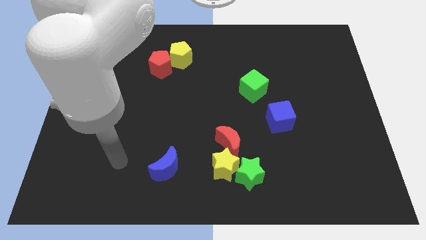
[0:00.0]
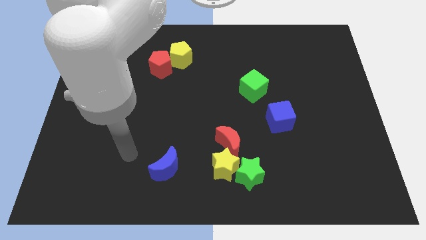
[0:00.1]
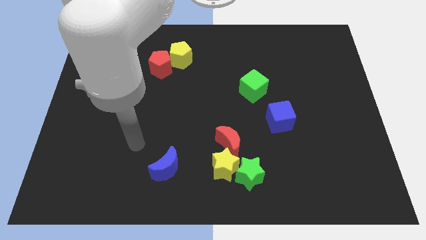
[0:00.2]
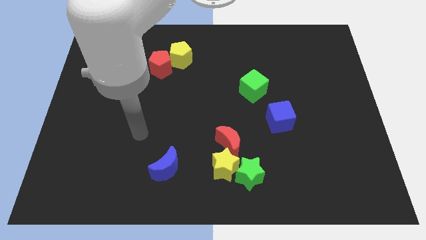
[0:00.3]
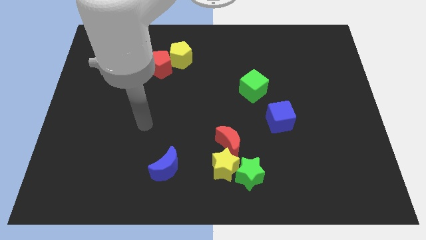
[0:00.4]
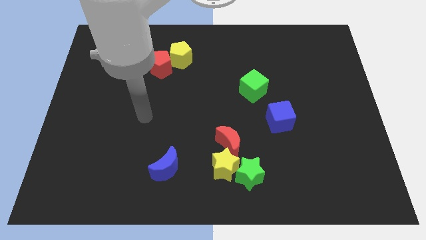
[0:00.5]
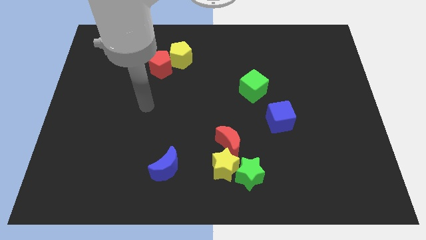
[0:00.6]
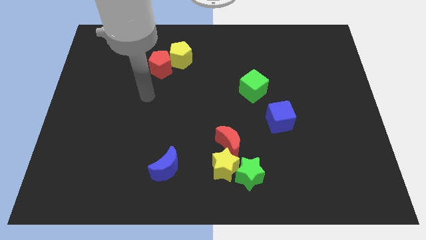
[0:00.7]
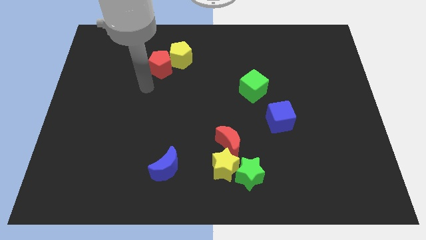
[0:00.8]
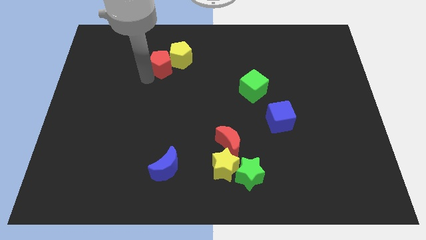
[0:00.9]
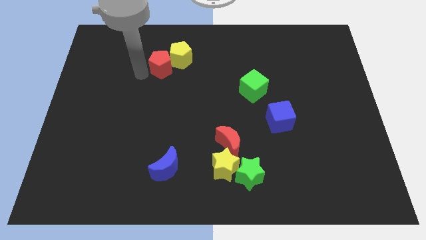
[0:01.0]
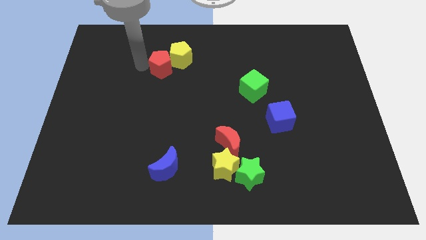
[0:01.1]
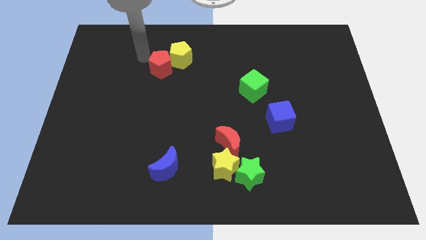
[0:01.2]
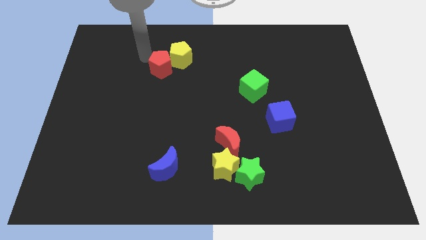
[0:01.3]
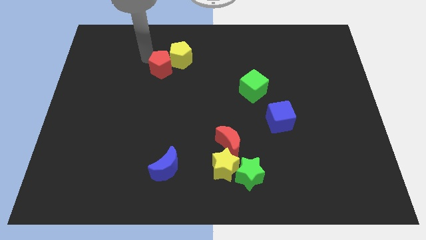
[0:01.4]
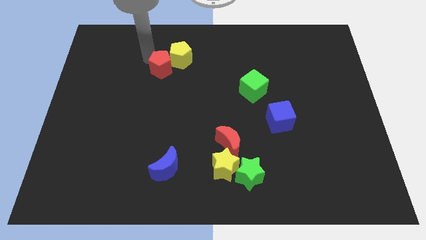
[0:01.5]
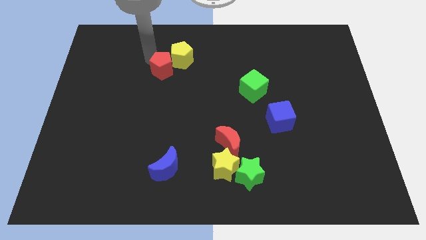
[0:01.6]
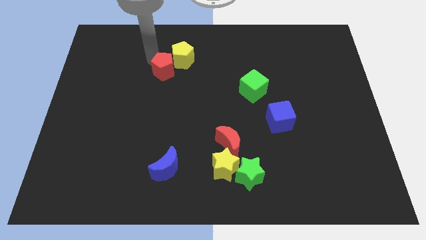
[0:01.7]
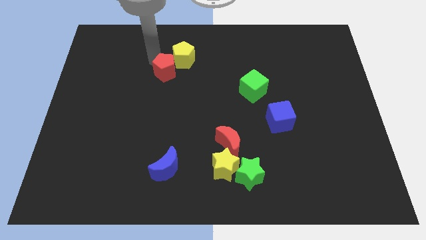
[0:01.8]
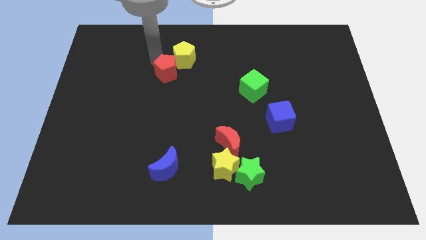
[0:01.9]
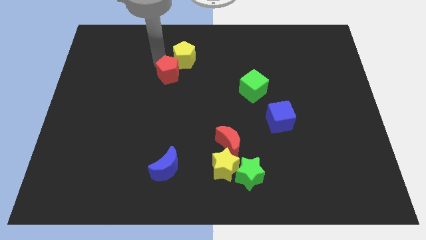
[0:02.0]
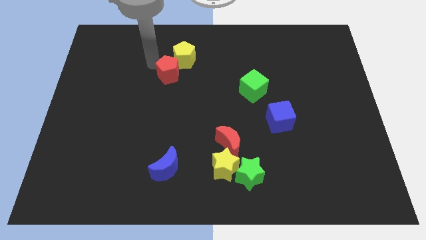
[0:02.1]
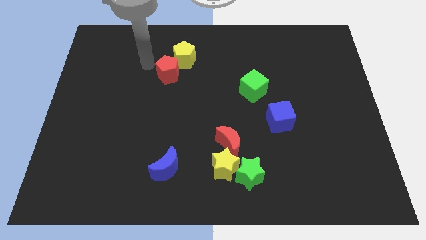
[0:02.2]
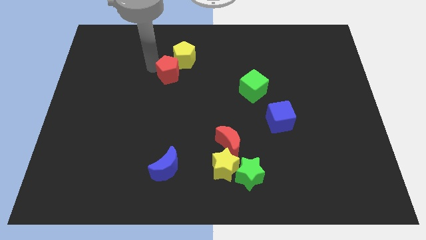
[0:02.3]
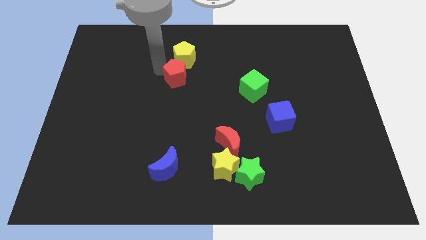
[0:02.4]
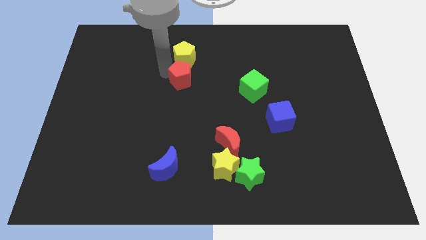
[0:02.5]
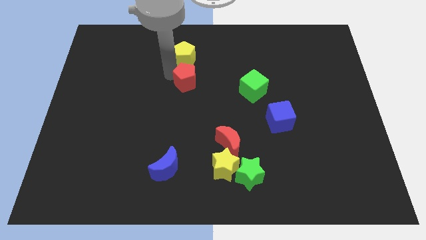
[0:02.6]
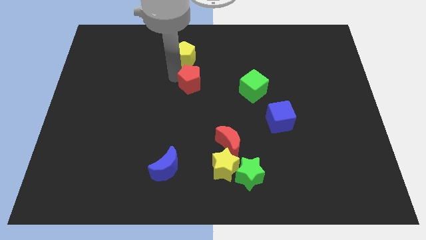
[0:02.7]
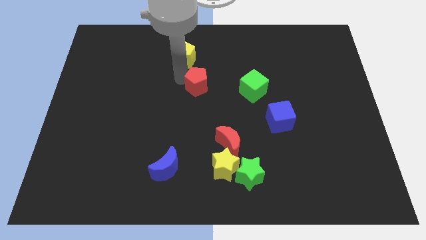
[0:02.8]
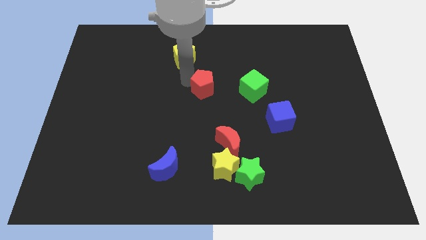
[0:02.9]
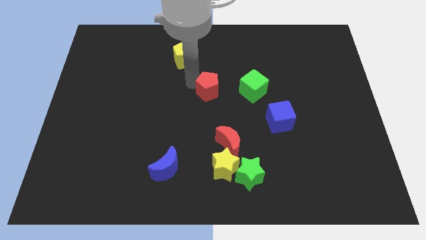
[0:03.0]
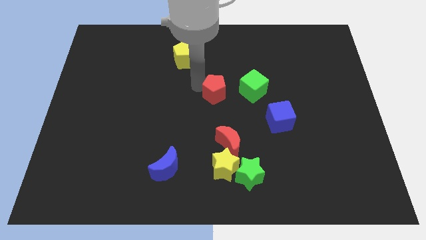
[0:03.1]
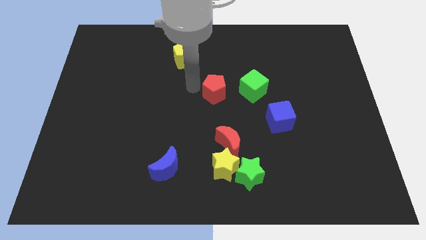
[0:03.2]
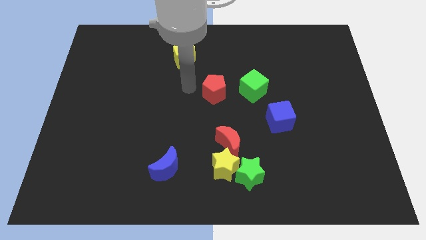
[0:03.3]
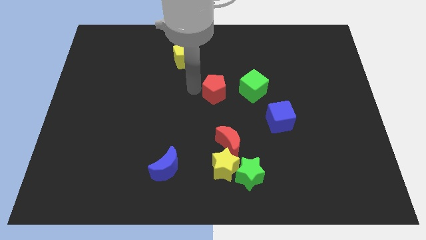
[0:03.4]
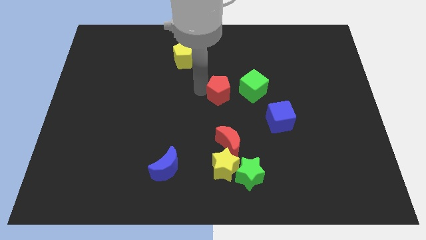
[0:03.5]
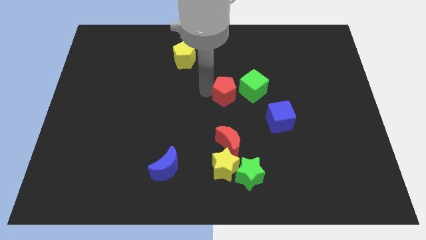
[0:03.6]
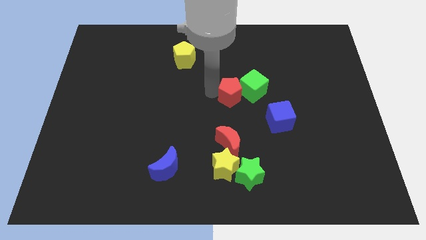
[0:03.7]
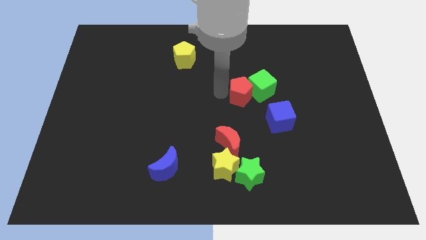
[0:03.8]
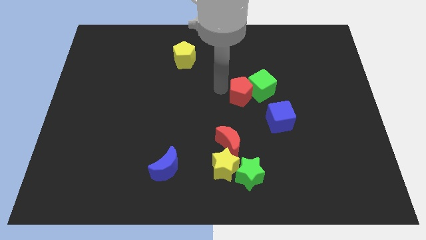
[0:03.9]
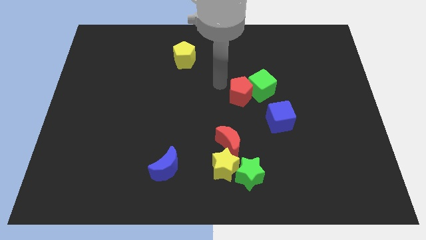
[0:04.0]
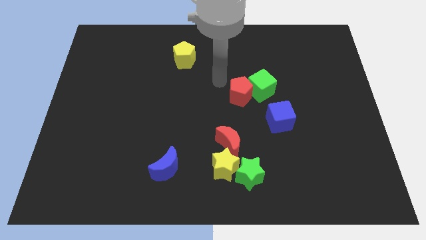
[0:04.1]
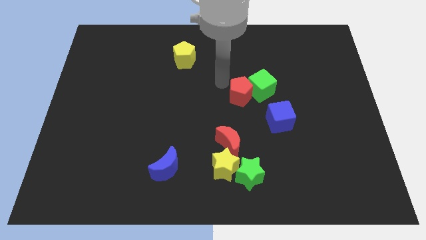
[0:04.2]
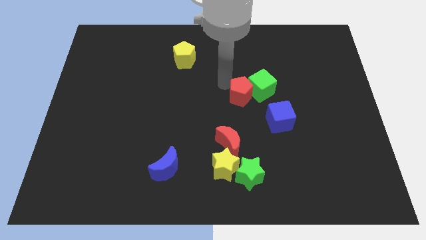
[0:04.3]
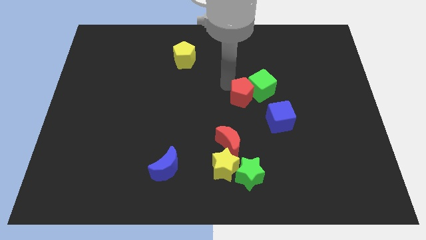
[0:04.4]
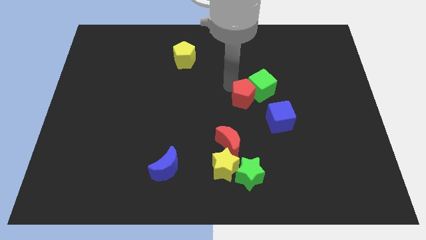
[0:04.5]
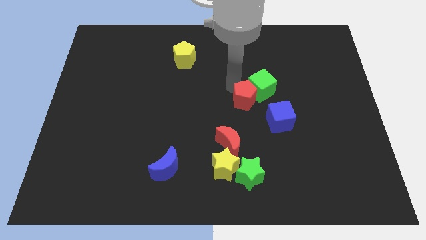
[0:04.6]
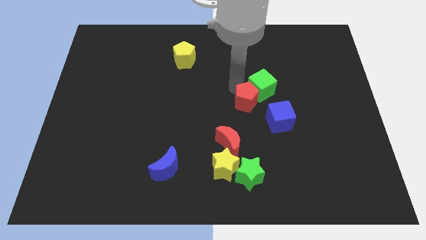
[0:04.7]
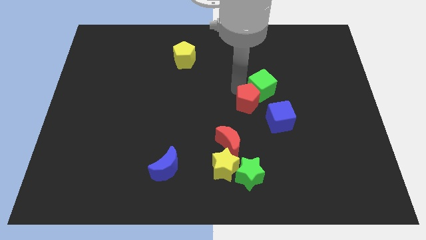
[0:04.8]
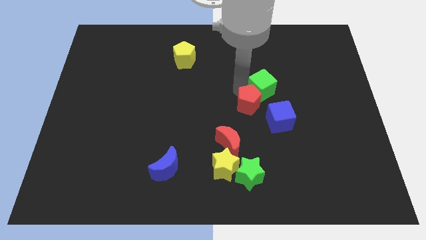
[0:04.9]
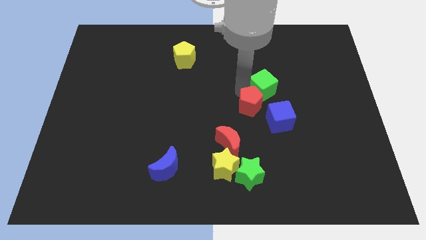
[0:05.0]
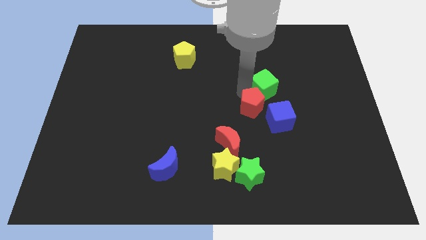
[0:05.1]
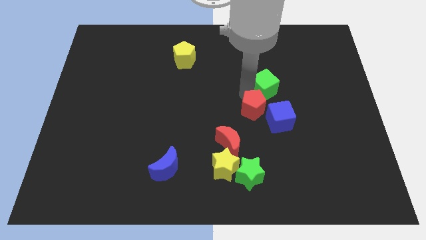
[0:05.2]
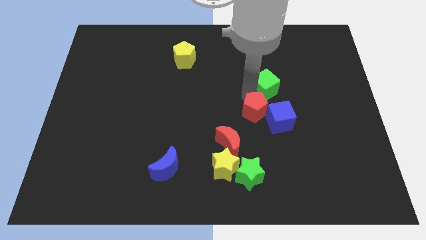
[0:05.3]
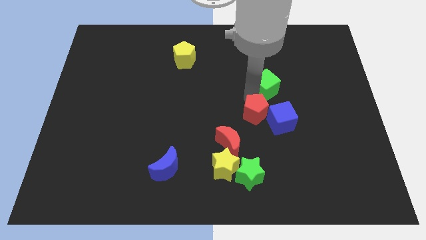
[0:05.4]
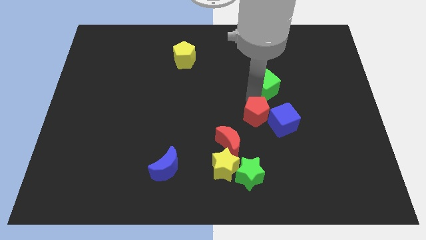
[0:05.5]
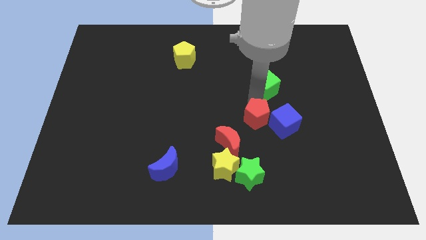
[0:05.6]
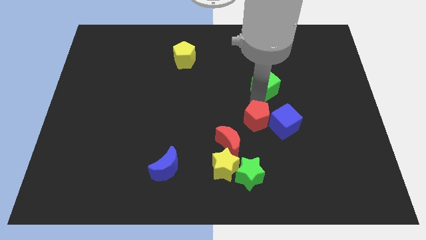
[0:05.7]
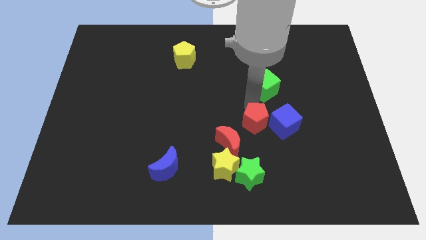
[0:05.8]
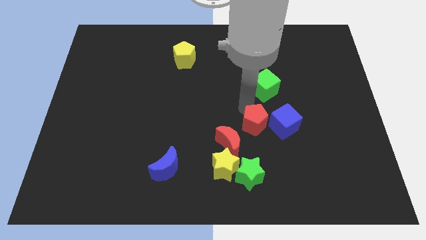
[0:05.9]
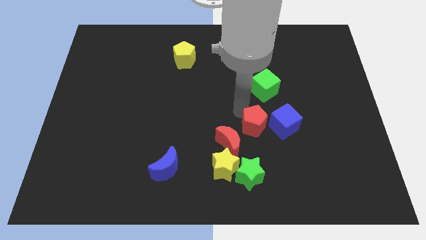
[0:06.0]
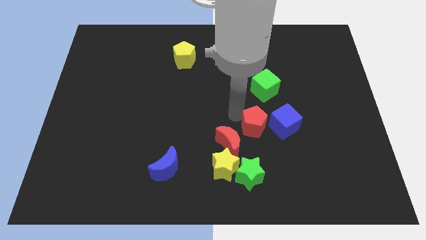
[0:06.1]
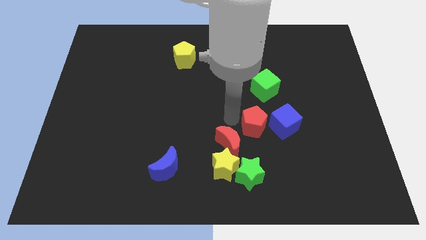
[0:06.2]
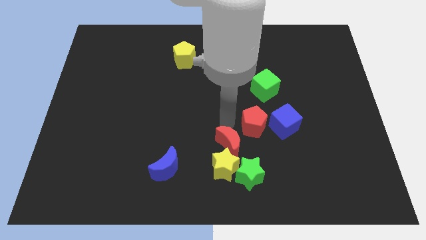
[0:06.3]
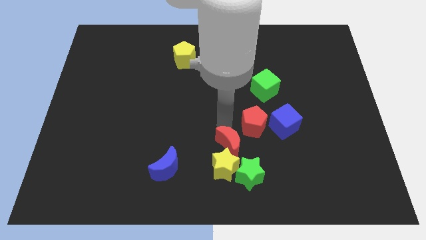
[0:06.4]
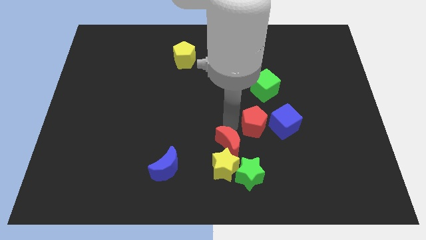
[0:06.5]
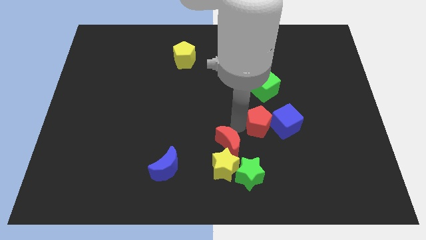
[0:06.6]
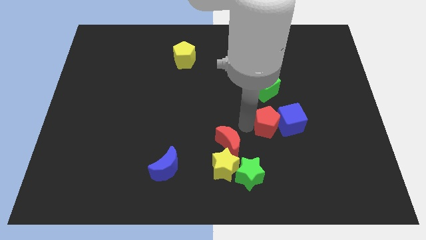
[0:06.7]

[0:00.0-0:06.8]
slide the red pentagon to the blue cube

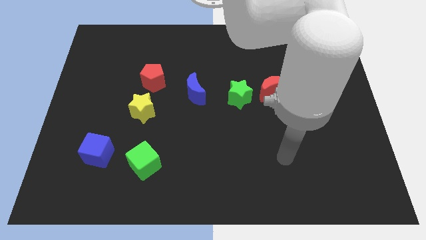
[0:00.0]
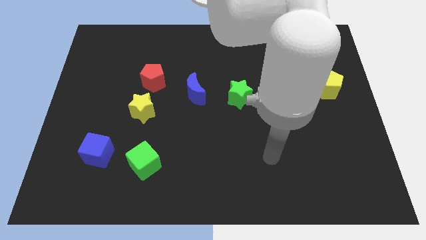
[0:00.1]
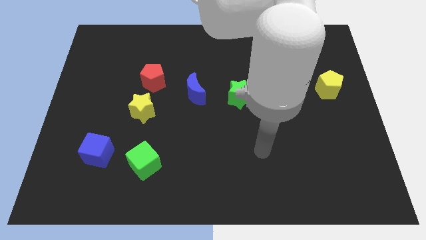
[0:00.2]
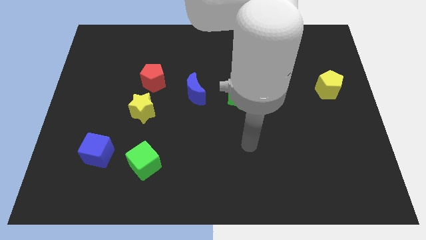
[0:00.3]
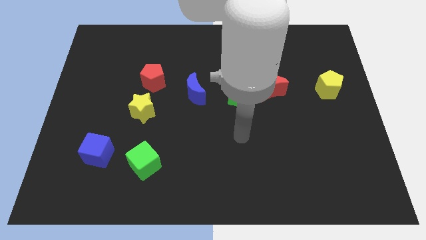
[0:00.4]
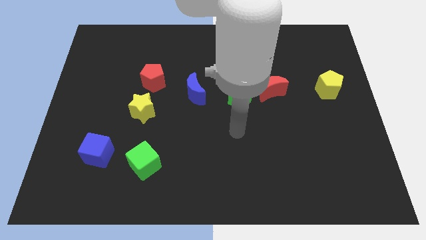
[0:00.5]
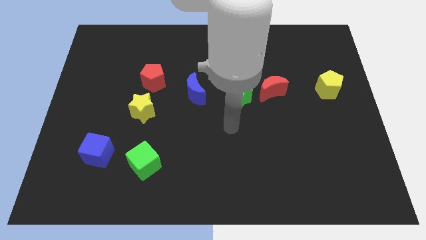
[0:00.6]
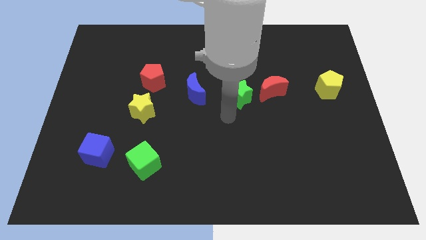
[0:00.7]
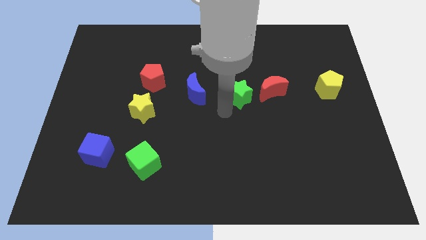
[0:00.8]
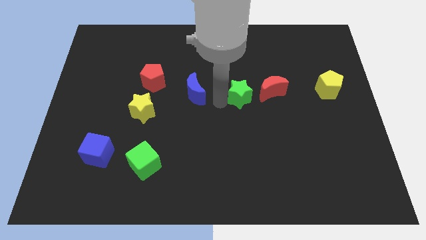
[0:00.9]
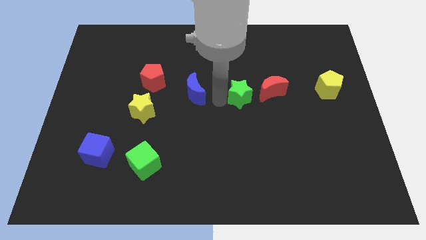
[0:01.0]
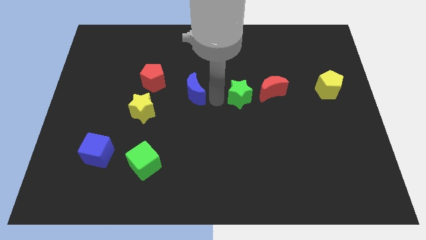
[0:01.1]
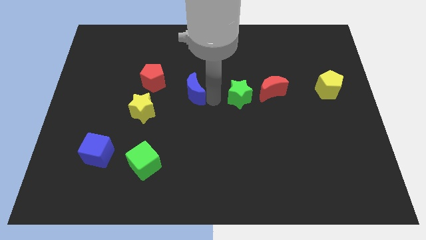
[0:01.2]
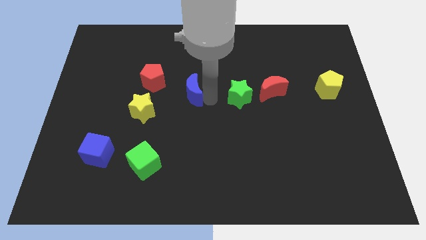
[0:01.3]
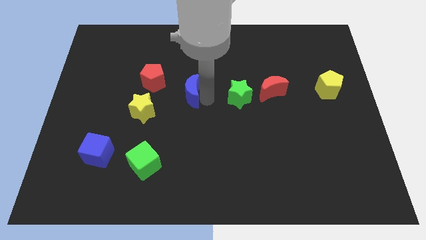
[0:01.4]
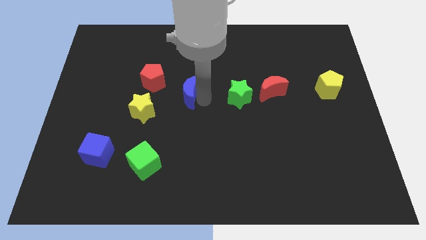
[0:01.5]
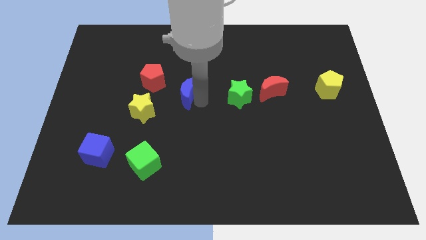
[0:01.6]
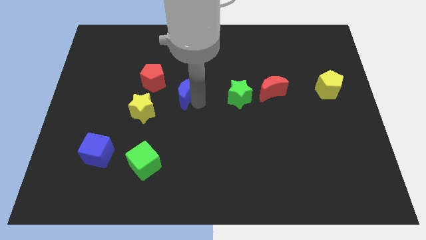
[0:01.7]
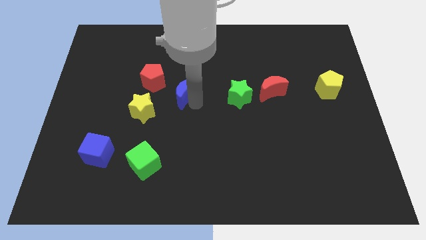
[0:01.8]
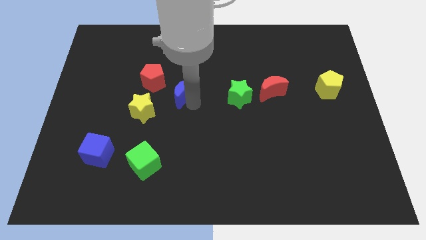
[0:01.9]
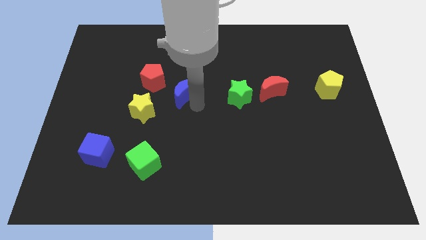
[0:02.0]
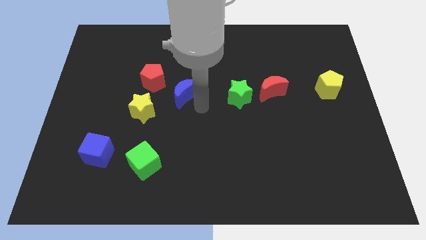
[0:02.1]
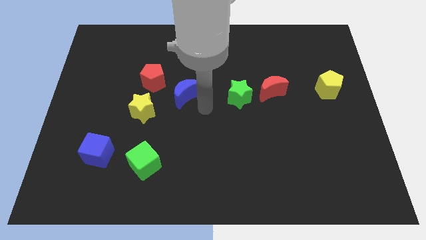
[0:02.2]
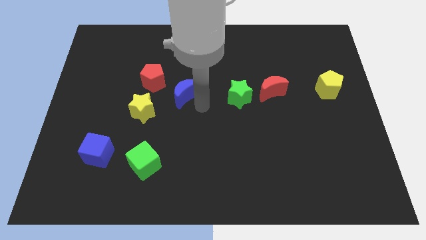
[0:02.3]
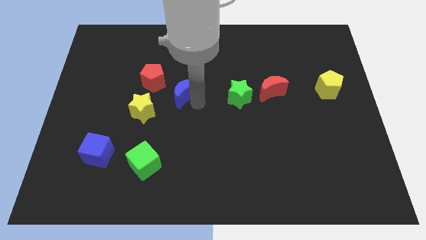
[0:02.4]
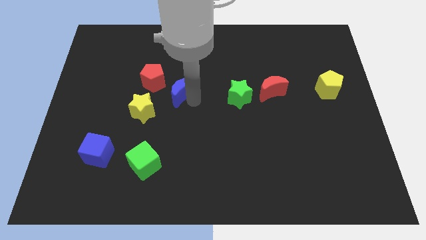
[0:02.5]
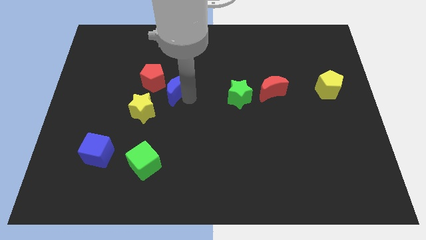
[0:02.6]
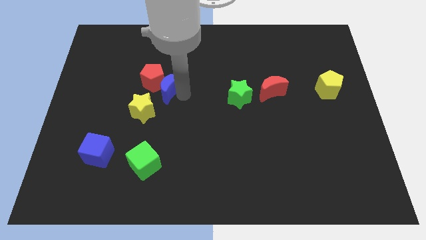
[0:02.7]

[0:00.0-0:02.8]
put the blue moon next to the red pentagon
